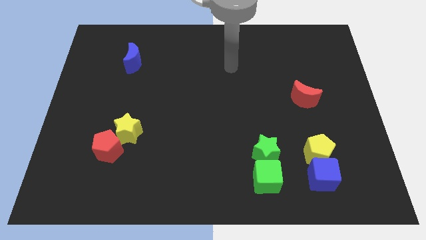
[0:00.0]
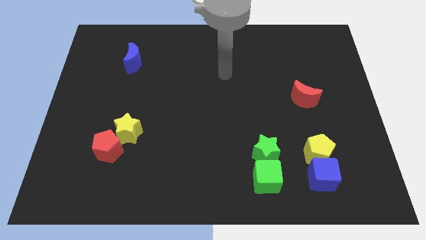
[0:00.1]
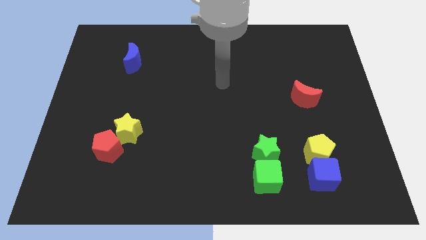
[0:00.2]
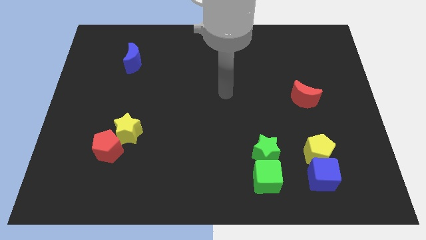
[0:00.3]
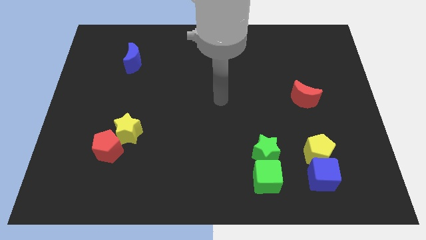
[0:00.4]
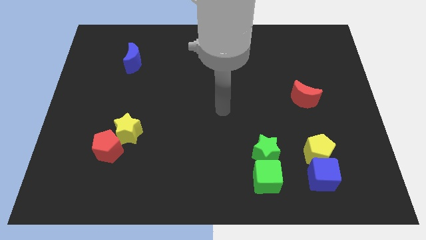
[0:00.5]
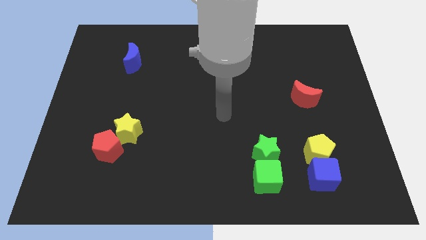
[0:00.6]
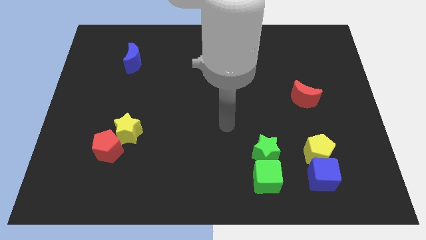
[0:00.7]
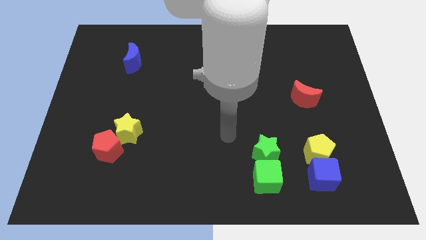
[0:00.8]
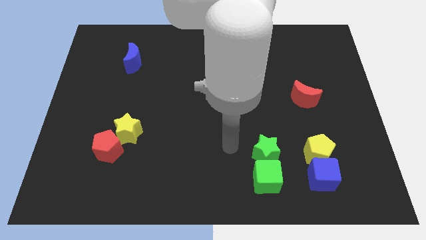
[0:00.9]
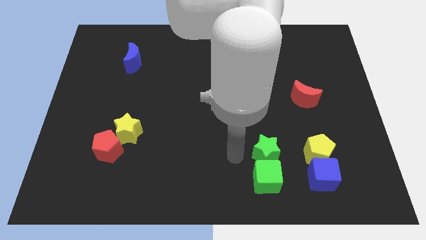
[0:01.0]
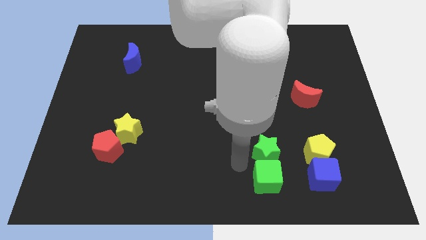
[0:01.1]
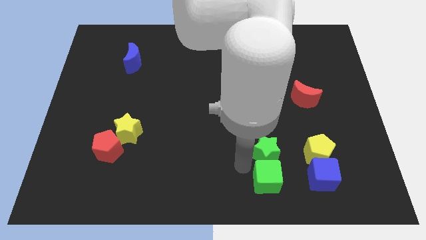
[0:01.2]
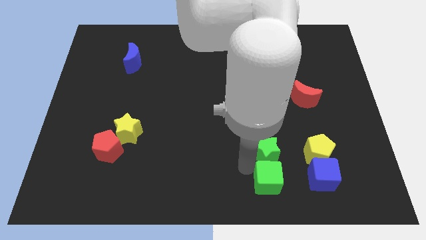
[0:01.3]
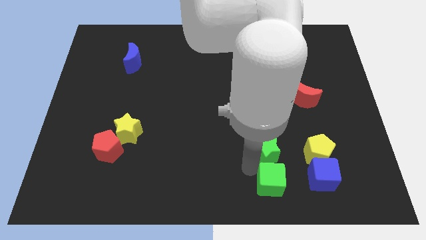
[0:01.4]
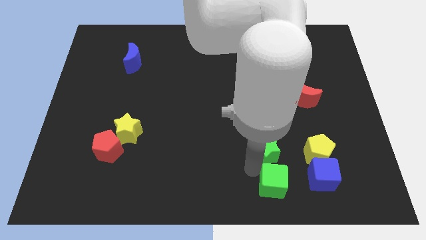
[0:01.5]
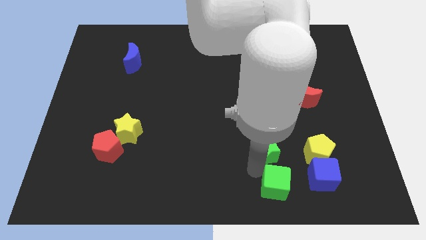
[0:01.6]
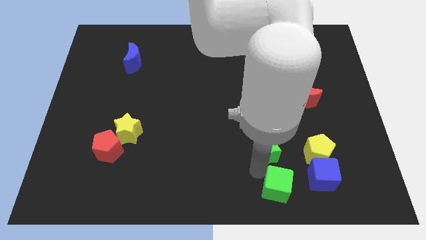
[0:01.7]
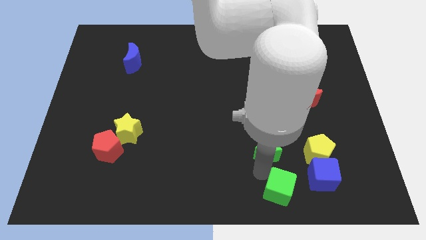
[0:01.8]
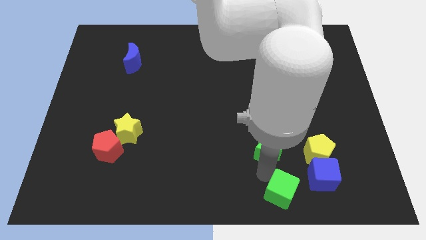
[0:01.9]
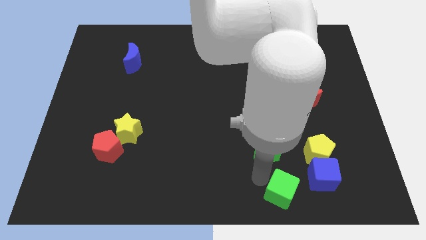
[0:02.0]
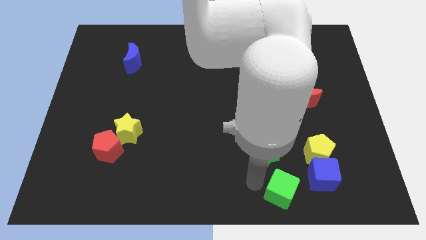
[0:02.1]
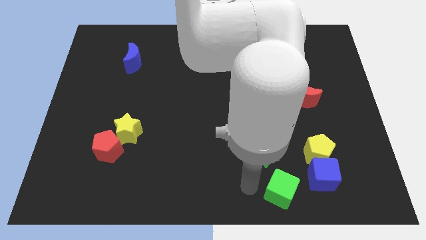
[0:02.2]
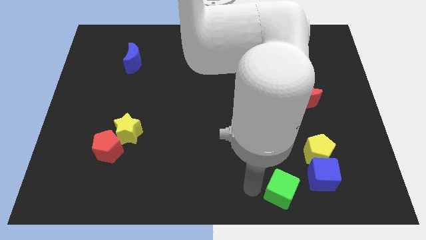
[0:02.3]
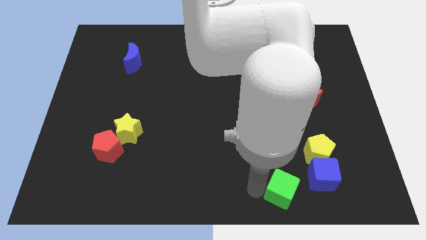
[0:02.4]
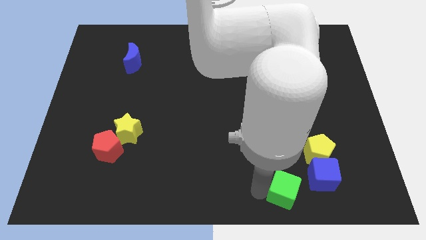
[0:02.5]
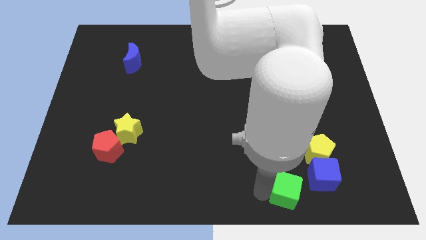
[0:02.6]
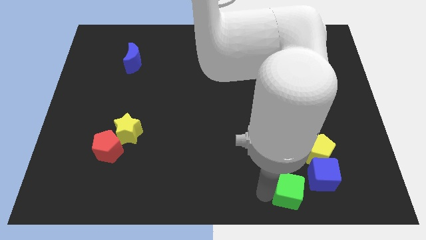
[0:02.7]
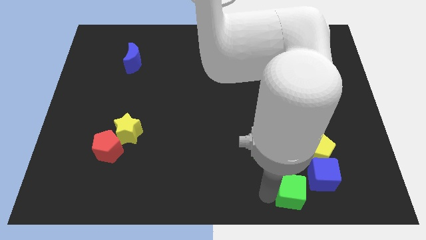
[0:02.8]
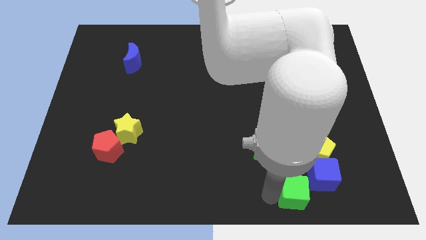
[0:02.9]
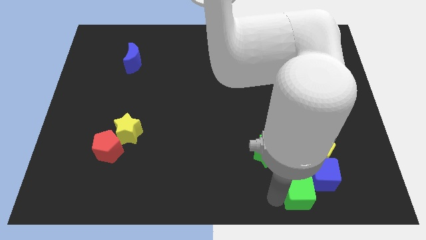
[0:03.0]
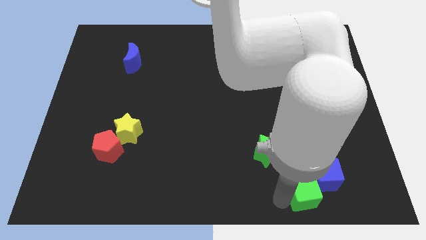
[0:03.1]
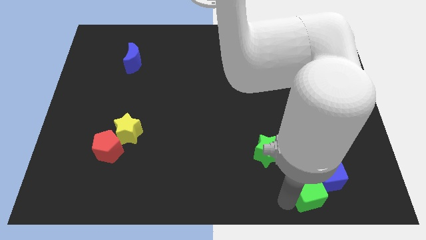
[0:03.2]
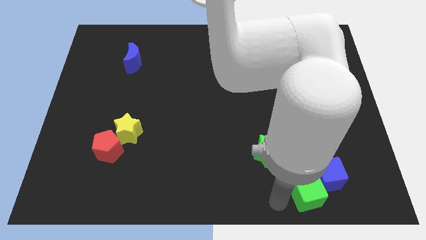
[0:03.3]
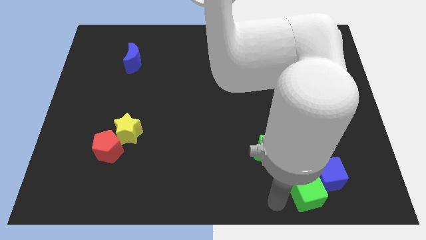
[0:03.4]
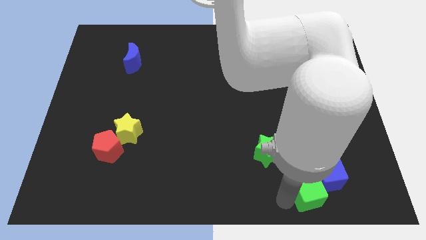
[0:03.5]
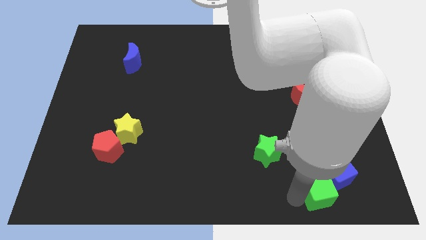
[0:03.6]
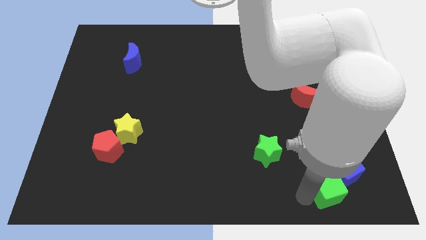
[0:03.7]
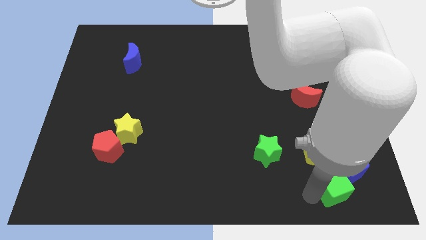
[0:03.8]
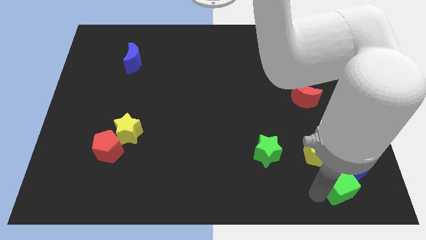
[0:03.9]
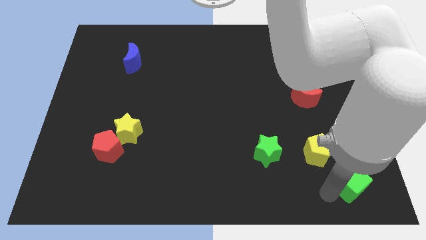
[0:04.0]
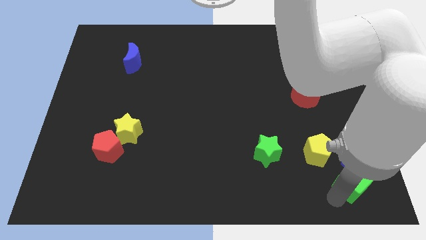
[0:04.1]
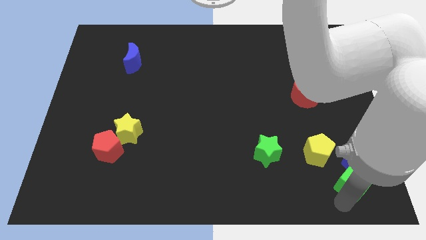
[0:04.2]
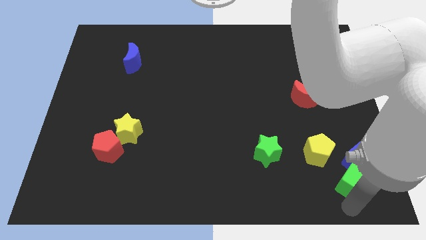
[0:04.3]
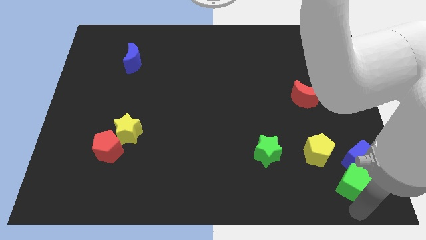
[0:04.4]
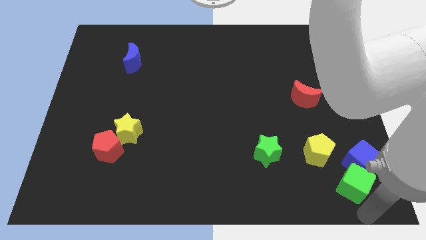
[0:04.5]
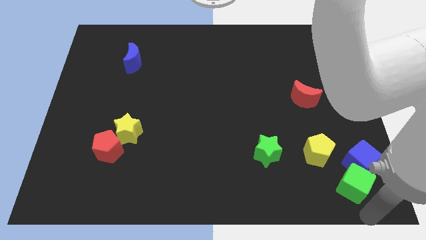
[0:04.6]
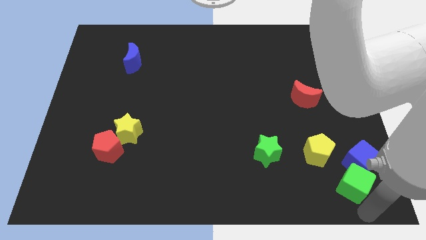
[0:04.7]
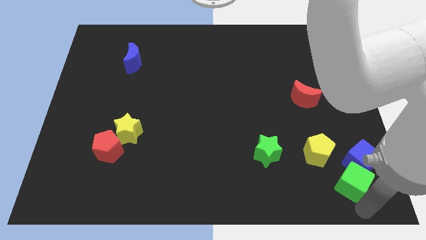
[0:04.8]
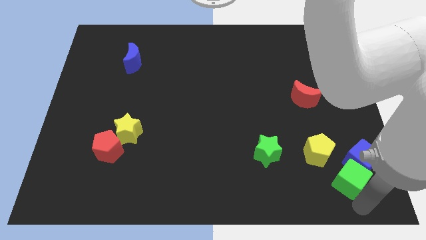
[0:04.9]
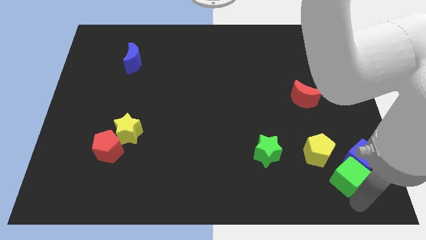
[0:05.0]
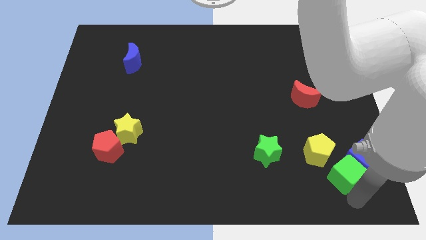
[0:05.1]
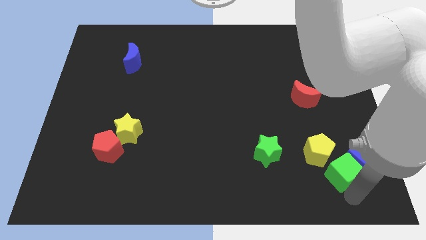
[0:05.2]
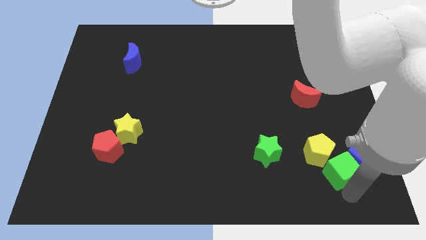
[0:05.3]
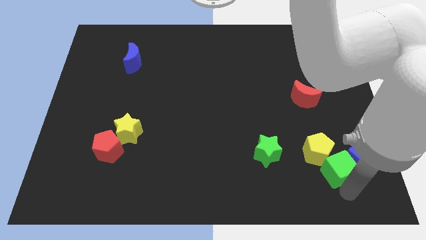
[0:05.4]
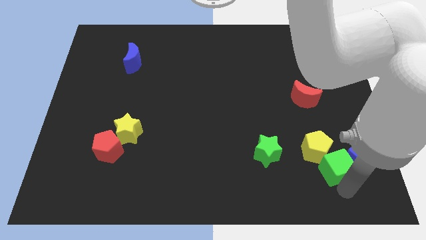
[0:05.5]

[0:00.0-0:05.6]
move the green cube to the right side of the green star

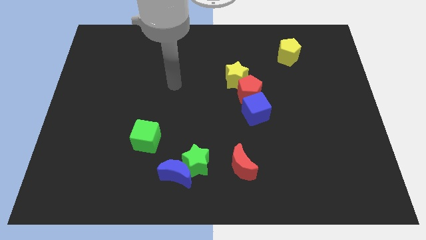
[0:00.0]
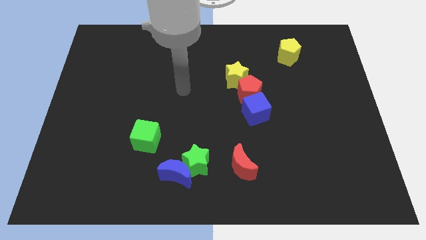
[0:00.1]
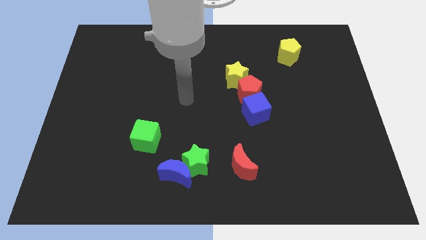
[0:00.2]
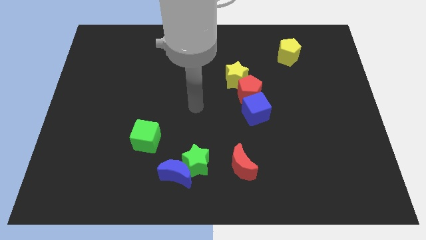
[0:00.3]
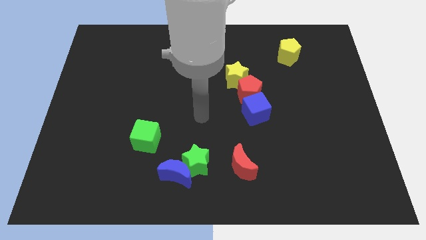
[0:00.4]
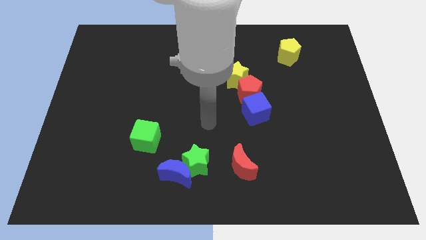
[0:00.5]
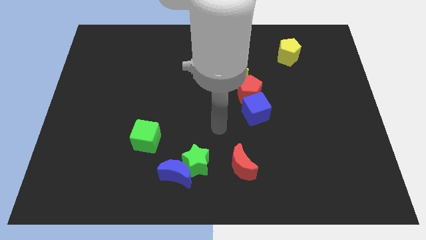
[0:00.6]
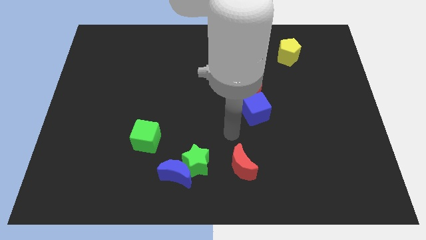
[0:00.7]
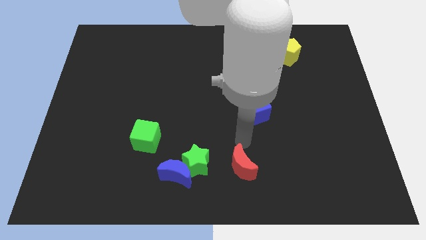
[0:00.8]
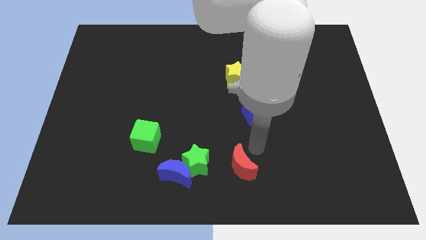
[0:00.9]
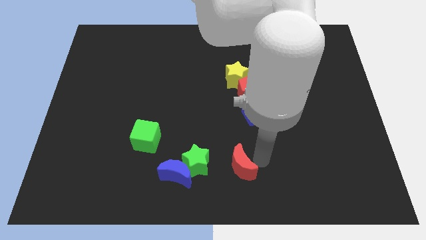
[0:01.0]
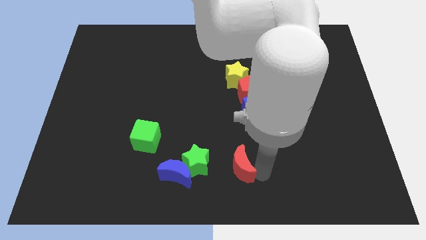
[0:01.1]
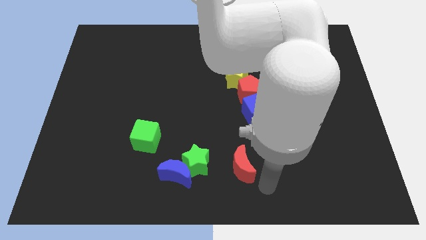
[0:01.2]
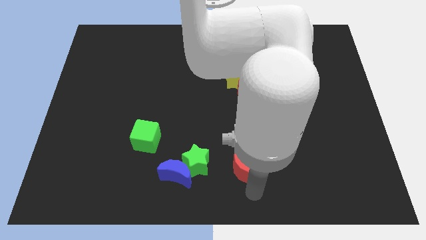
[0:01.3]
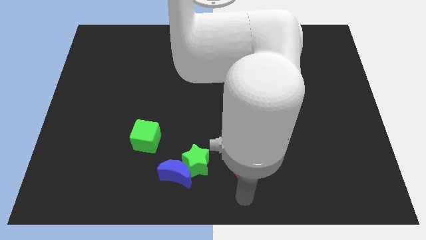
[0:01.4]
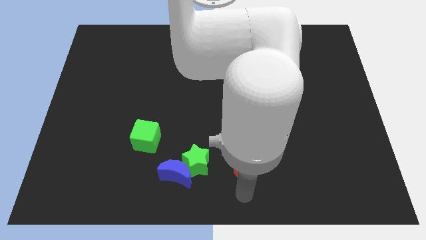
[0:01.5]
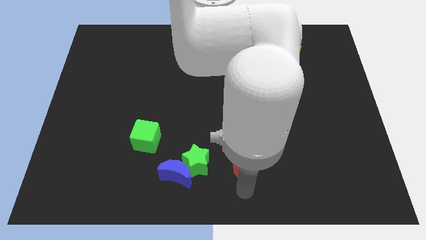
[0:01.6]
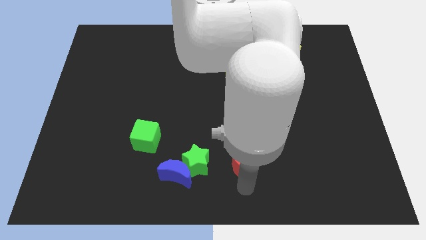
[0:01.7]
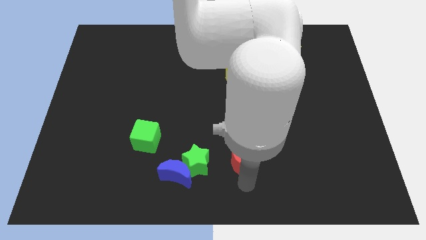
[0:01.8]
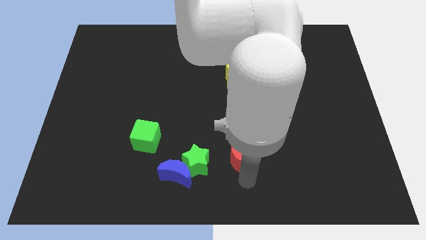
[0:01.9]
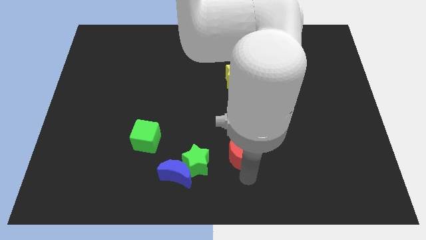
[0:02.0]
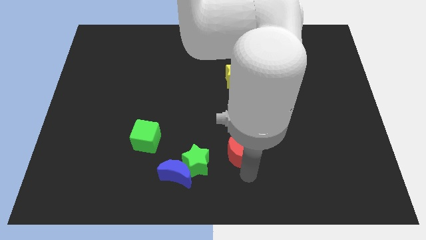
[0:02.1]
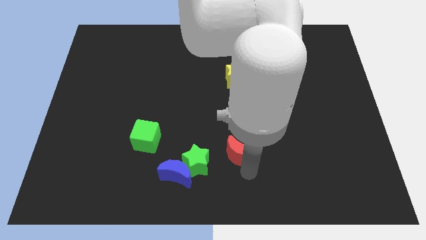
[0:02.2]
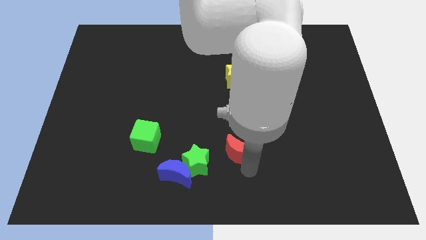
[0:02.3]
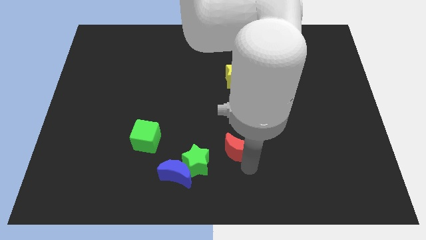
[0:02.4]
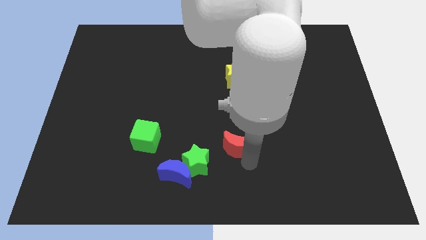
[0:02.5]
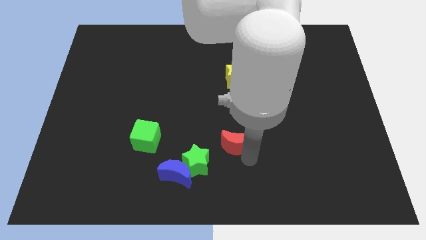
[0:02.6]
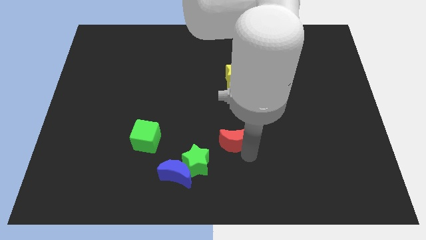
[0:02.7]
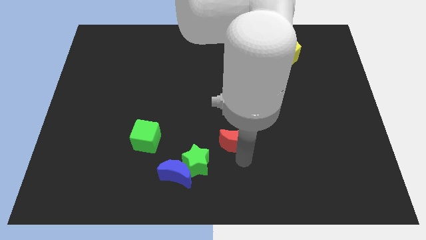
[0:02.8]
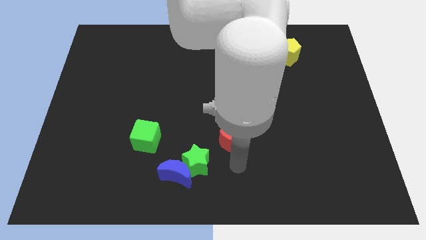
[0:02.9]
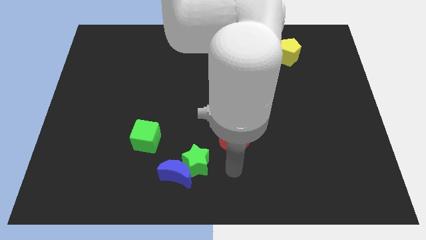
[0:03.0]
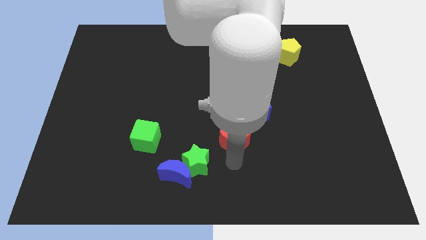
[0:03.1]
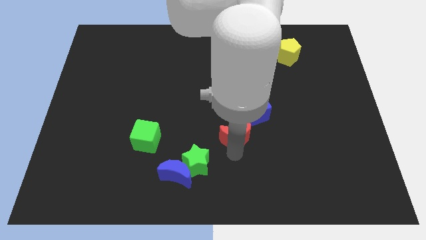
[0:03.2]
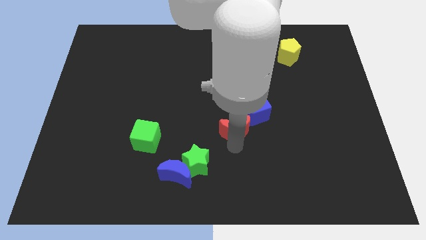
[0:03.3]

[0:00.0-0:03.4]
put the red moon to the bottom of the yellow star
